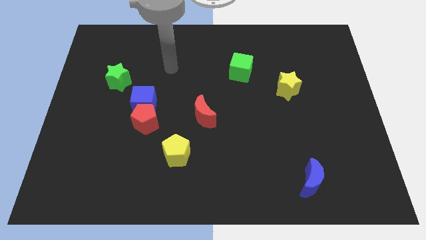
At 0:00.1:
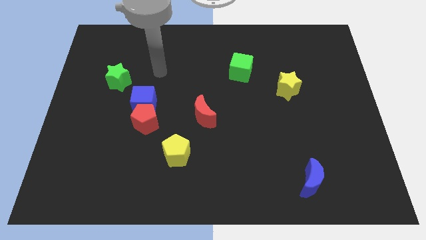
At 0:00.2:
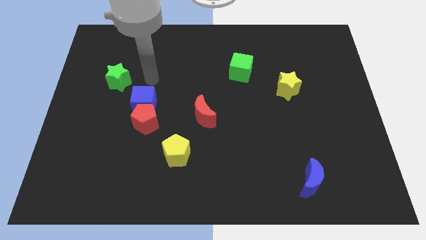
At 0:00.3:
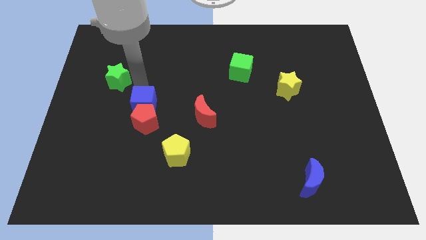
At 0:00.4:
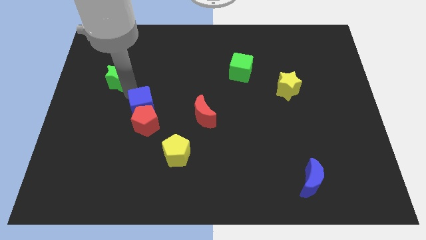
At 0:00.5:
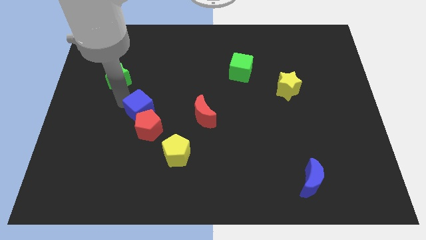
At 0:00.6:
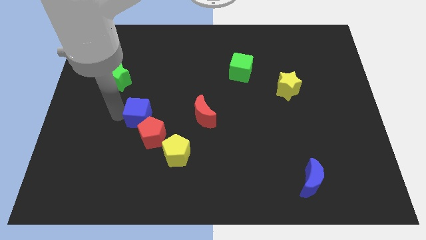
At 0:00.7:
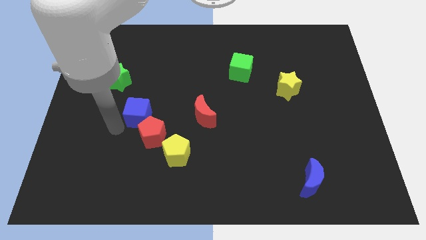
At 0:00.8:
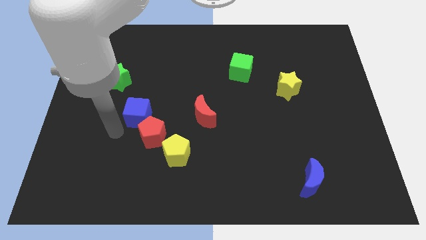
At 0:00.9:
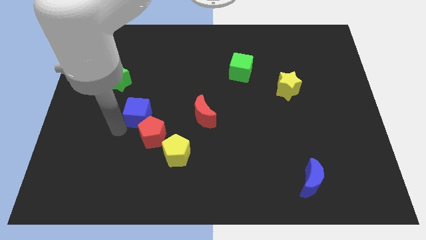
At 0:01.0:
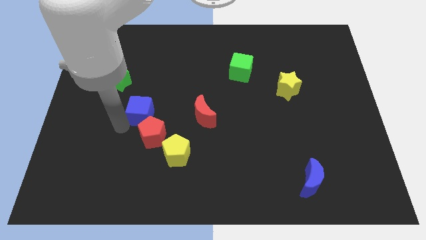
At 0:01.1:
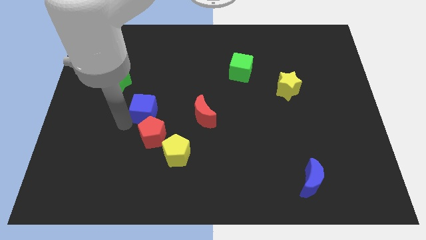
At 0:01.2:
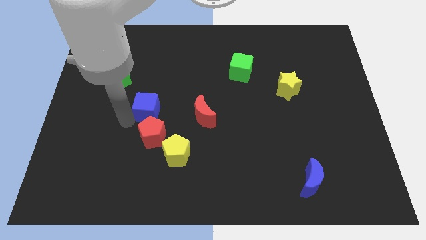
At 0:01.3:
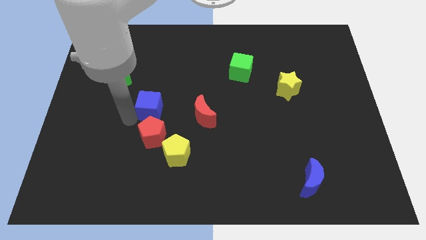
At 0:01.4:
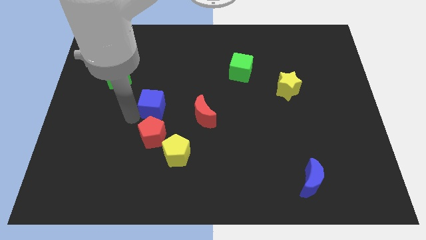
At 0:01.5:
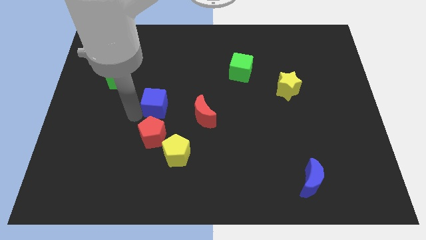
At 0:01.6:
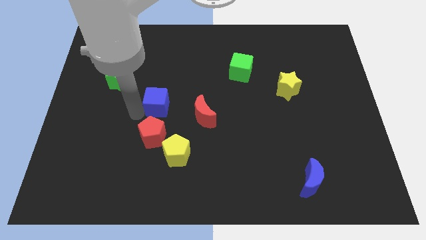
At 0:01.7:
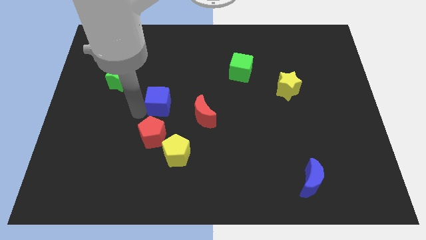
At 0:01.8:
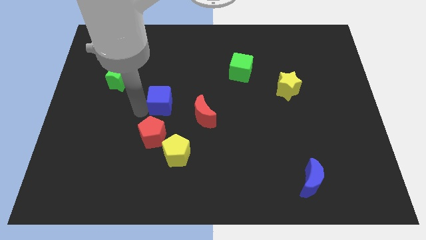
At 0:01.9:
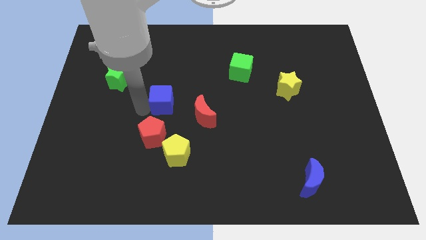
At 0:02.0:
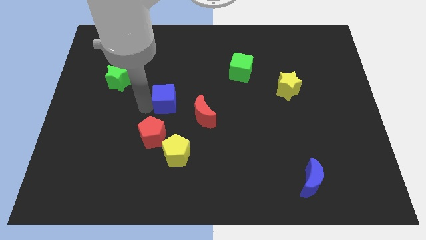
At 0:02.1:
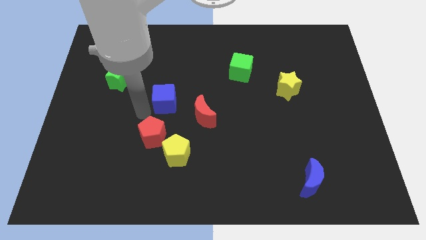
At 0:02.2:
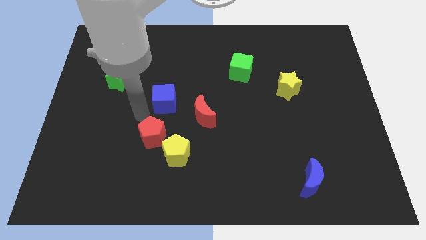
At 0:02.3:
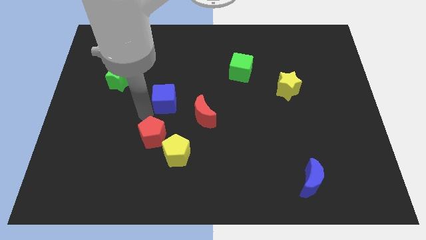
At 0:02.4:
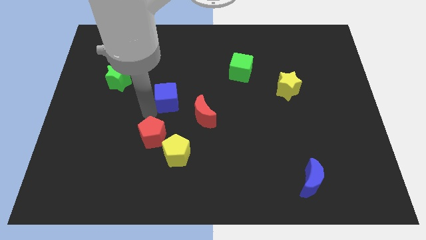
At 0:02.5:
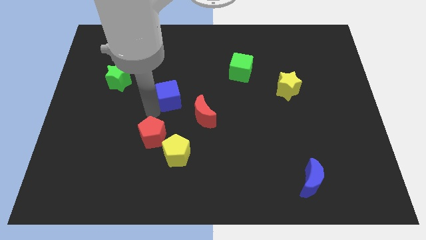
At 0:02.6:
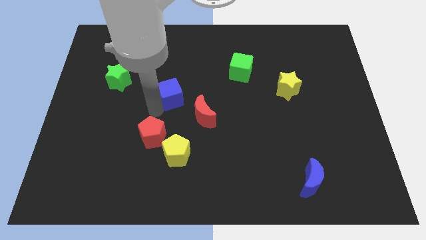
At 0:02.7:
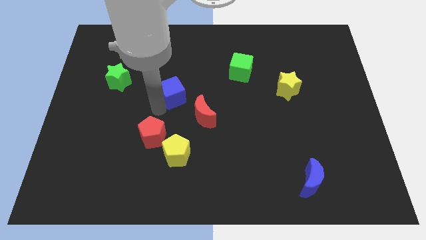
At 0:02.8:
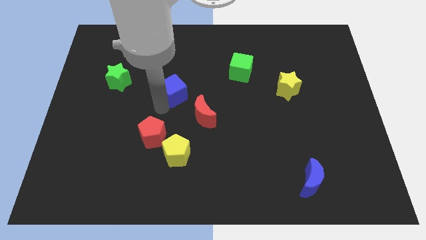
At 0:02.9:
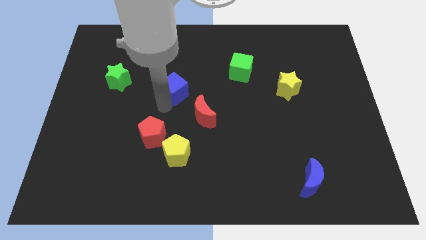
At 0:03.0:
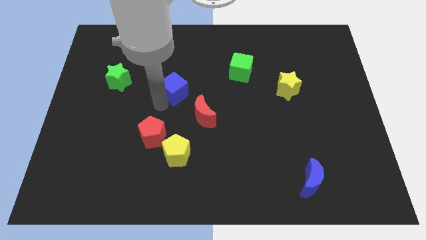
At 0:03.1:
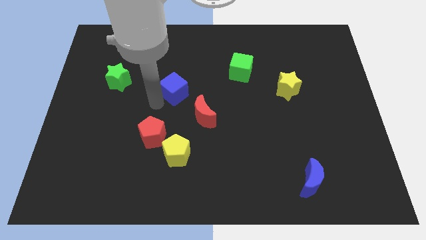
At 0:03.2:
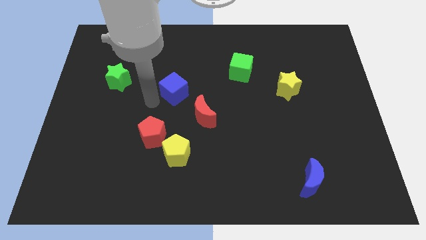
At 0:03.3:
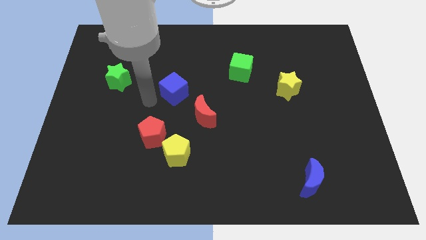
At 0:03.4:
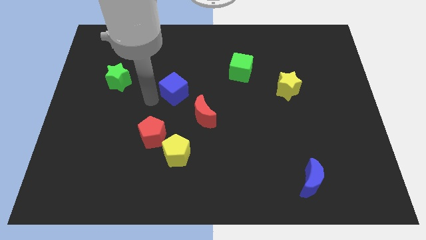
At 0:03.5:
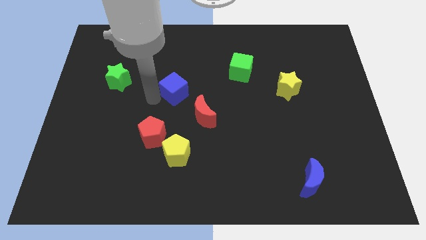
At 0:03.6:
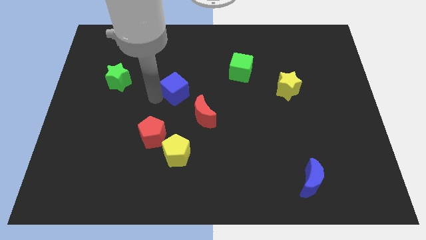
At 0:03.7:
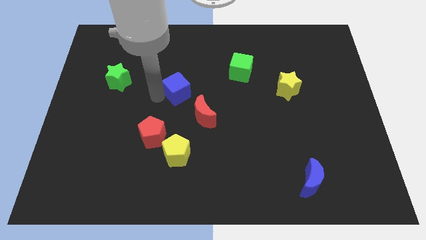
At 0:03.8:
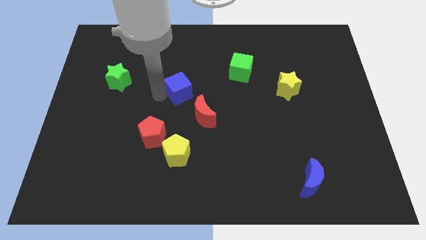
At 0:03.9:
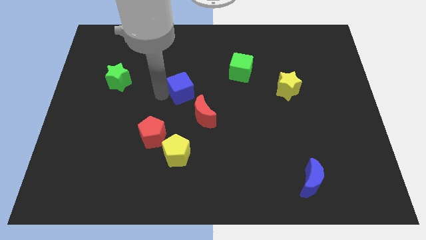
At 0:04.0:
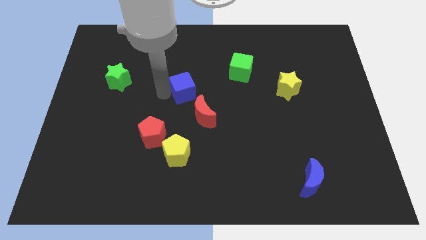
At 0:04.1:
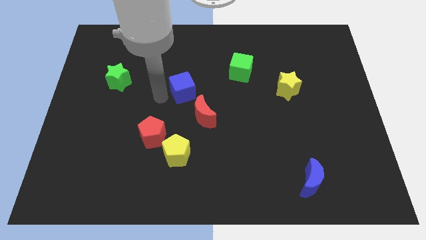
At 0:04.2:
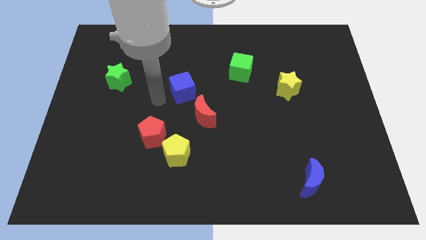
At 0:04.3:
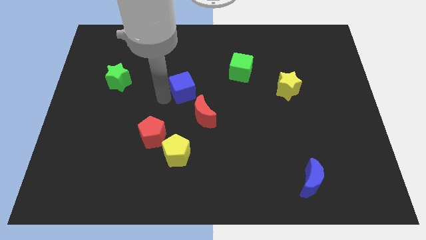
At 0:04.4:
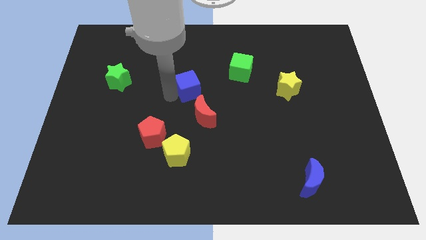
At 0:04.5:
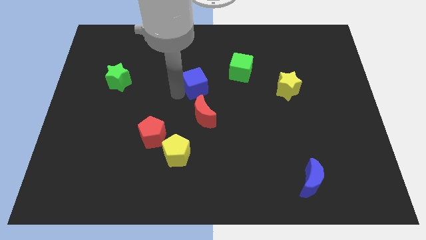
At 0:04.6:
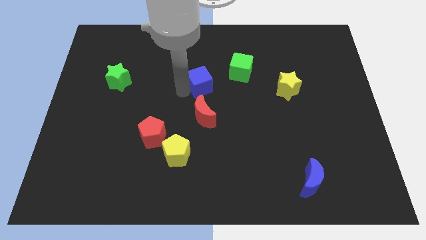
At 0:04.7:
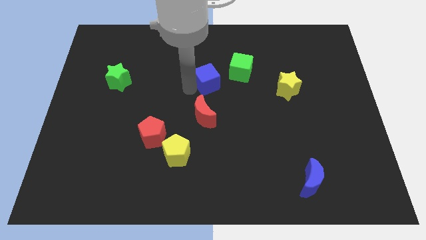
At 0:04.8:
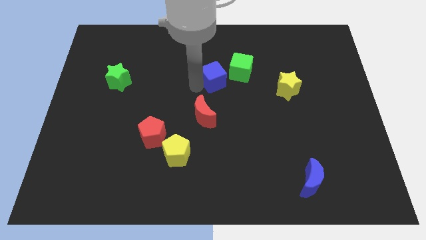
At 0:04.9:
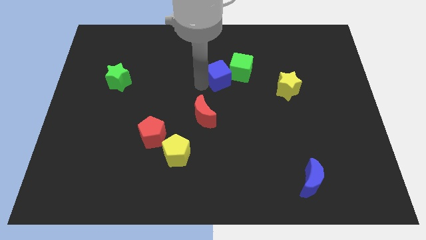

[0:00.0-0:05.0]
put the blue cube close to the green cube

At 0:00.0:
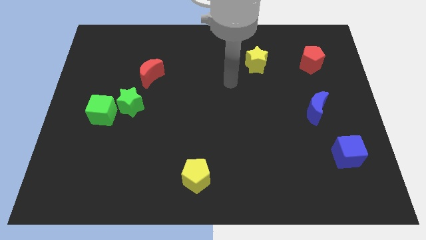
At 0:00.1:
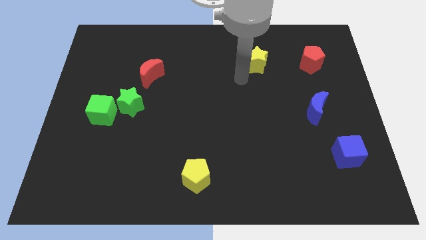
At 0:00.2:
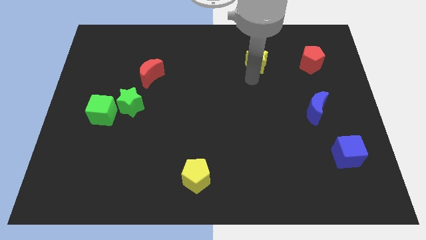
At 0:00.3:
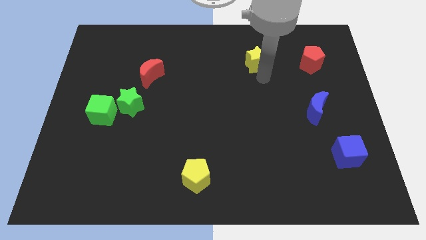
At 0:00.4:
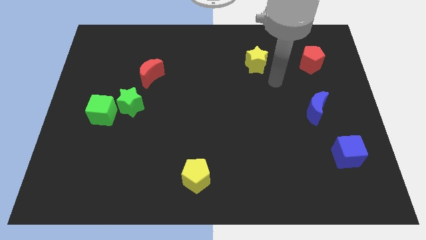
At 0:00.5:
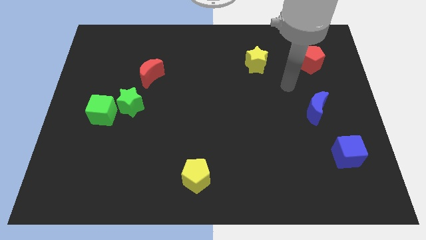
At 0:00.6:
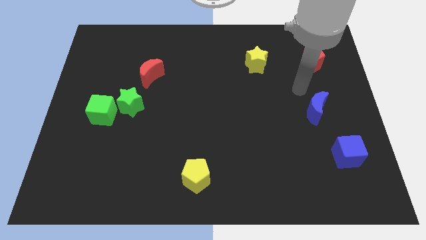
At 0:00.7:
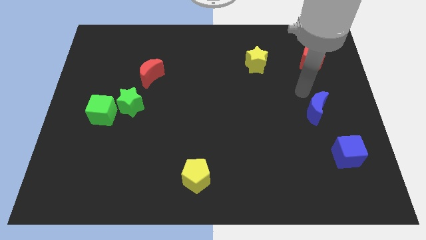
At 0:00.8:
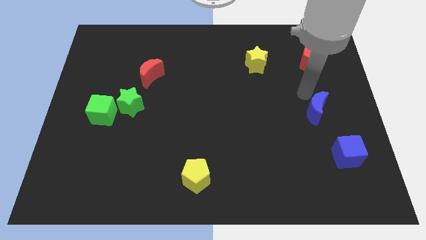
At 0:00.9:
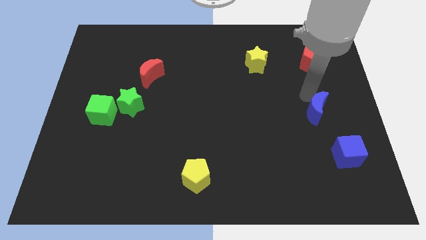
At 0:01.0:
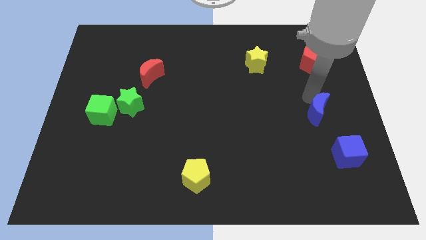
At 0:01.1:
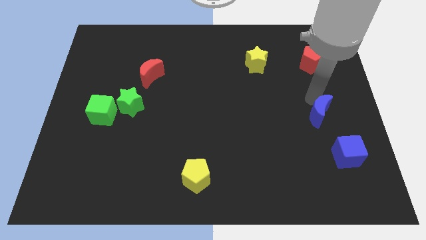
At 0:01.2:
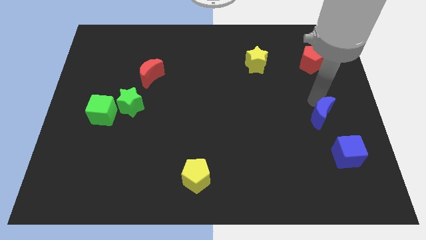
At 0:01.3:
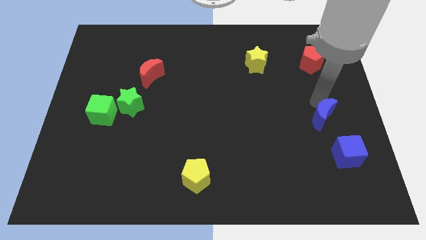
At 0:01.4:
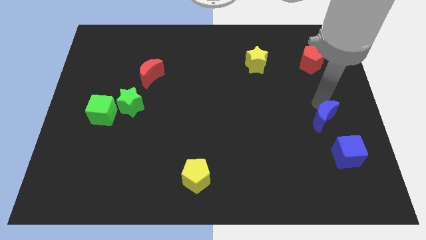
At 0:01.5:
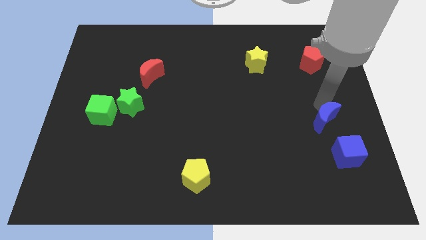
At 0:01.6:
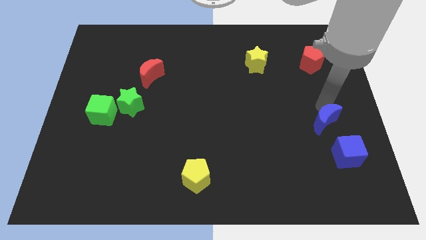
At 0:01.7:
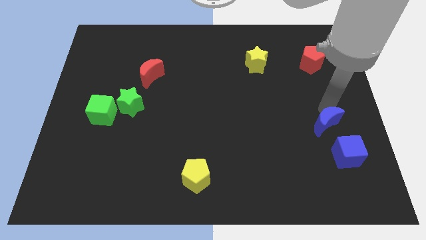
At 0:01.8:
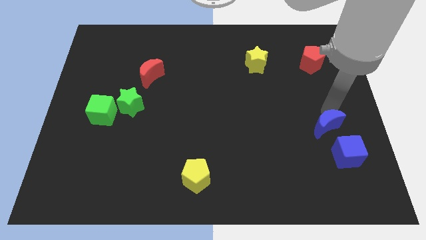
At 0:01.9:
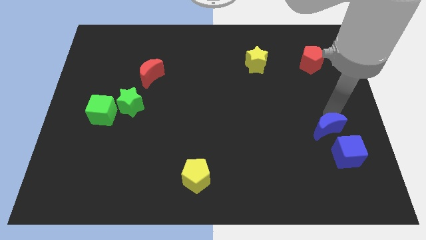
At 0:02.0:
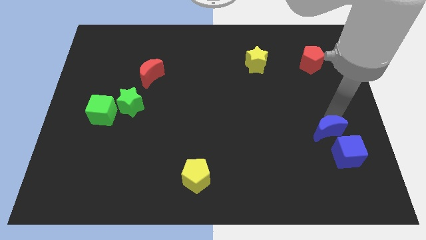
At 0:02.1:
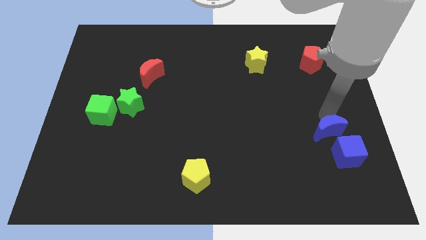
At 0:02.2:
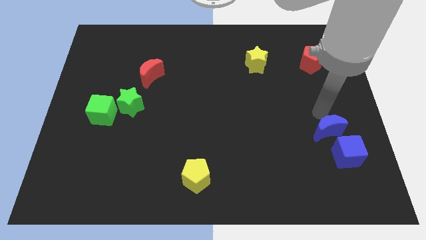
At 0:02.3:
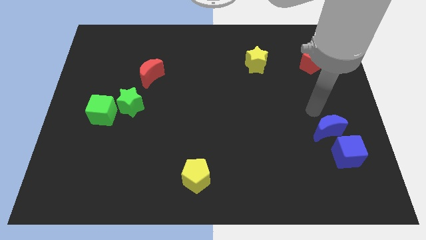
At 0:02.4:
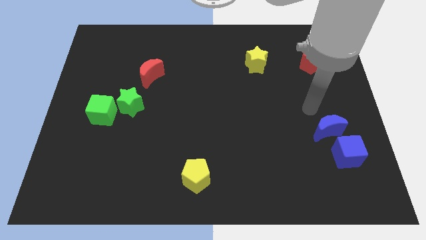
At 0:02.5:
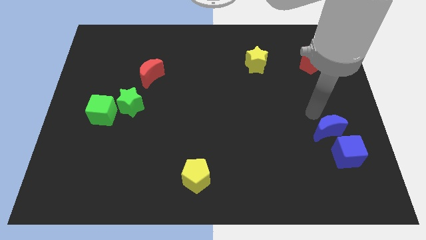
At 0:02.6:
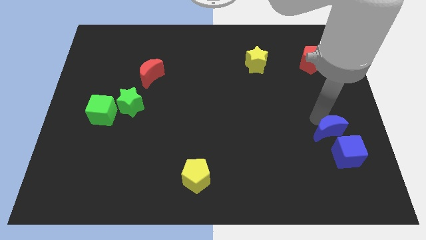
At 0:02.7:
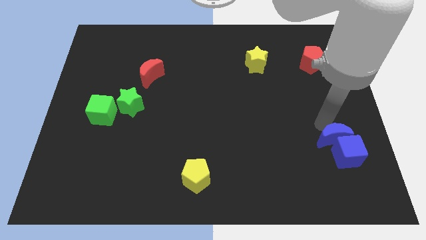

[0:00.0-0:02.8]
put the blue moon close to the blue cube

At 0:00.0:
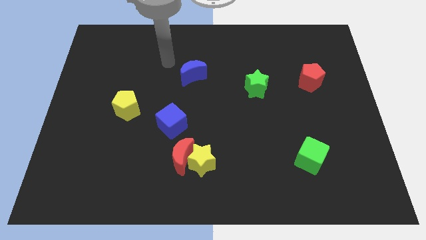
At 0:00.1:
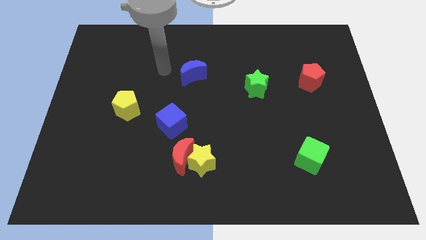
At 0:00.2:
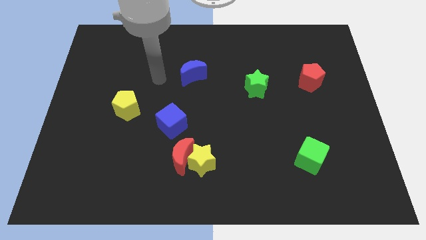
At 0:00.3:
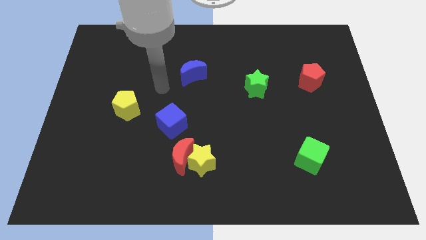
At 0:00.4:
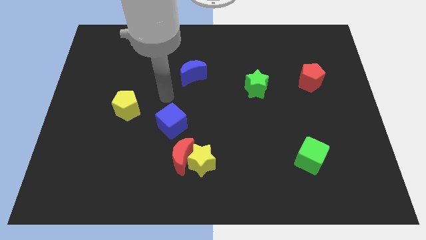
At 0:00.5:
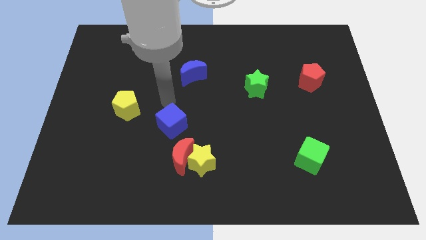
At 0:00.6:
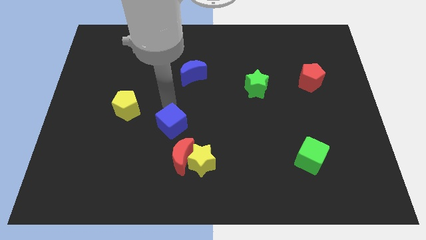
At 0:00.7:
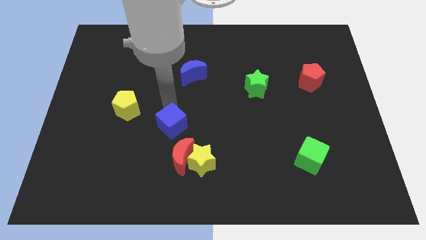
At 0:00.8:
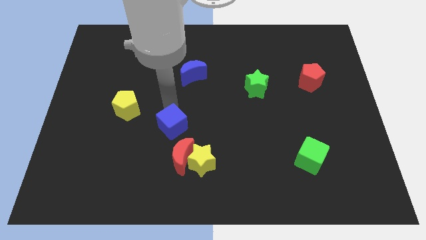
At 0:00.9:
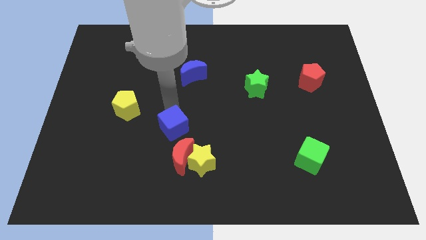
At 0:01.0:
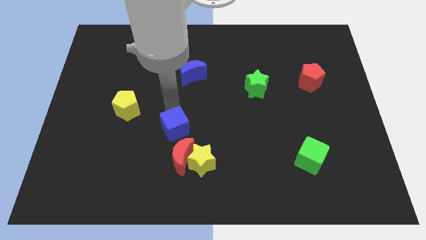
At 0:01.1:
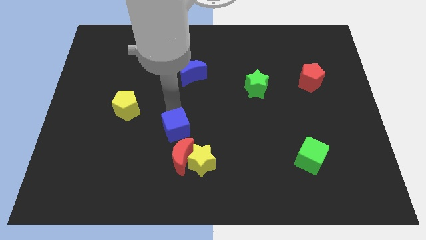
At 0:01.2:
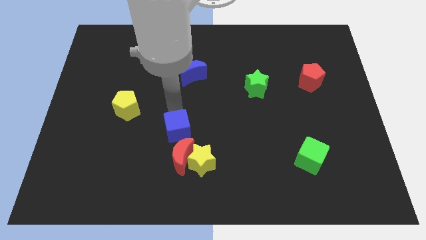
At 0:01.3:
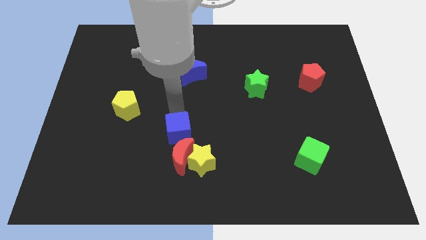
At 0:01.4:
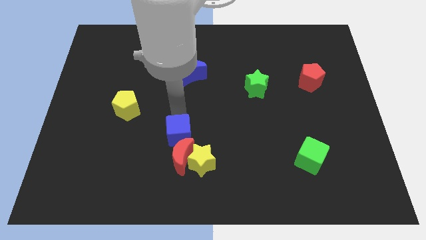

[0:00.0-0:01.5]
slide the blue cube close to the red moon
